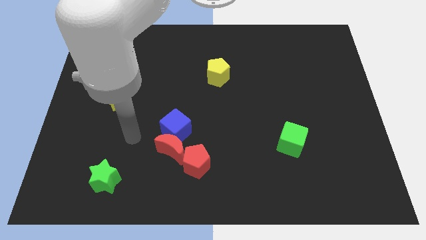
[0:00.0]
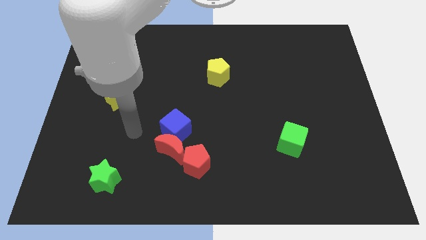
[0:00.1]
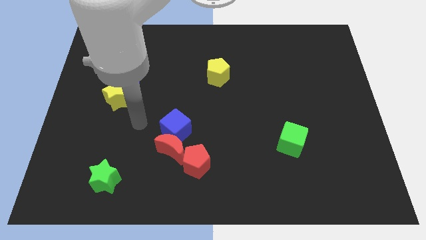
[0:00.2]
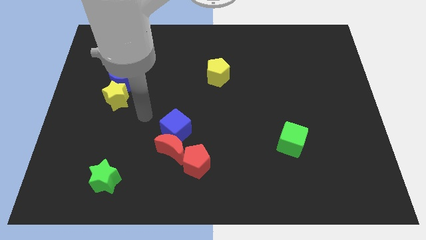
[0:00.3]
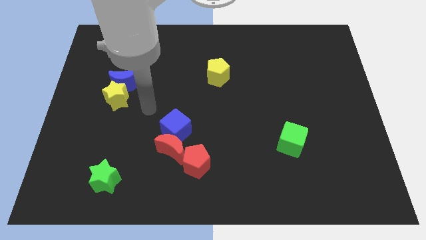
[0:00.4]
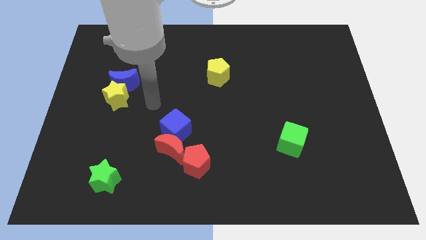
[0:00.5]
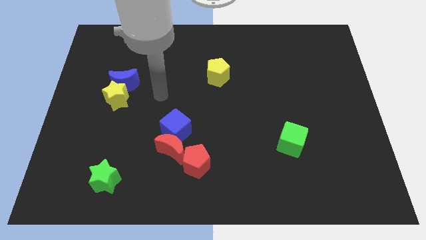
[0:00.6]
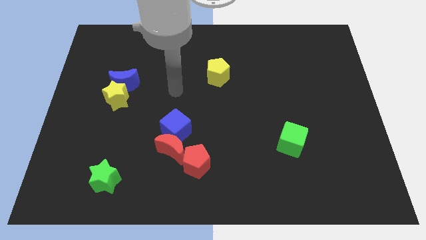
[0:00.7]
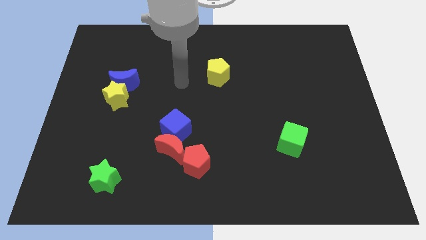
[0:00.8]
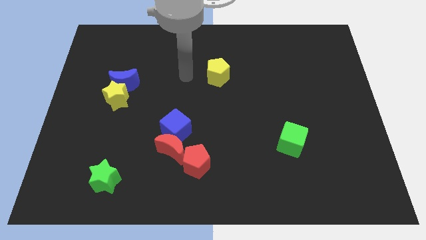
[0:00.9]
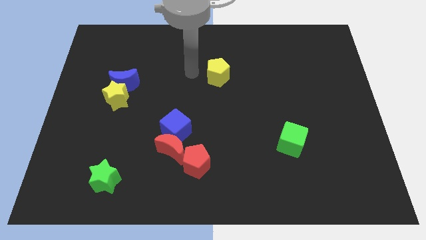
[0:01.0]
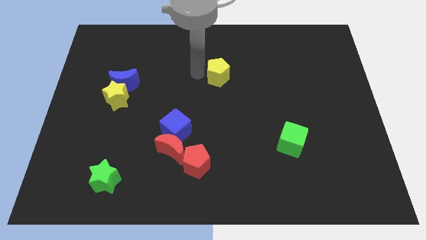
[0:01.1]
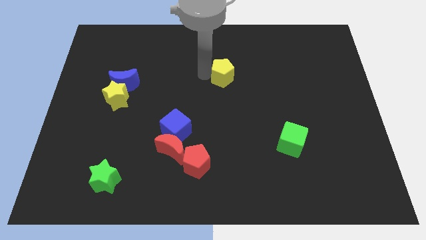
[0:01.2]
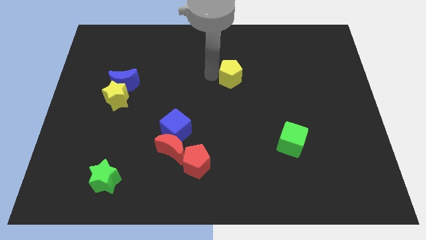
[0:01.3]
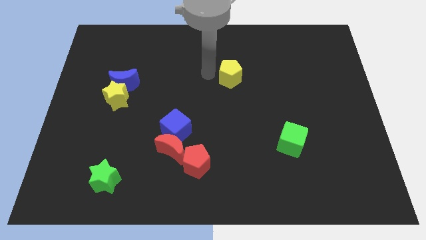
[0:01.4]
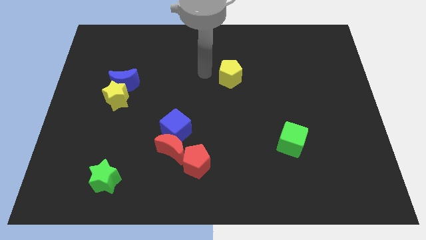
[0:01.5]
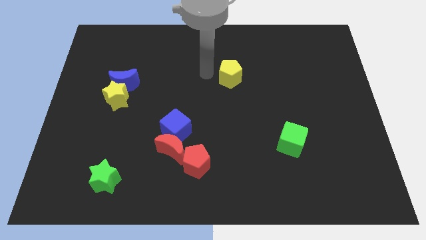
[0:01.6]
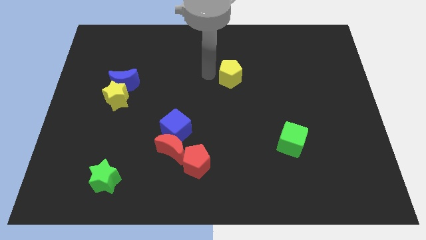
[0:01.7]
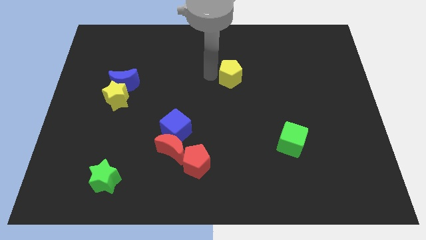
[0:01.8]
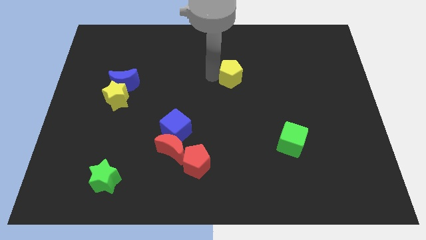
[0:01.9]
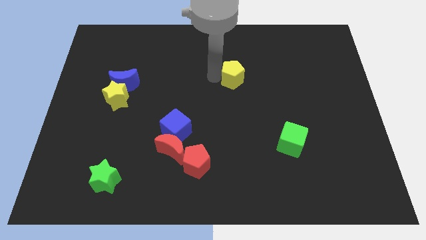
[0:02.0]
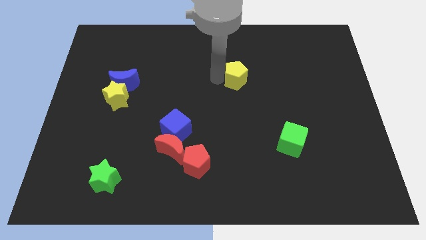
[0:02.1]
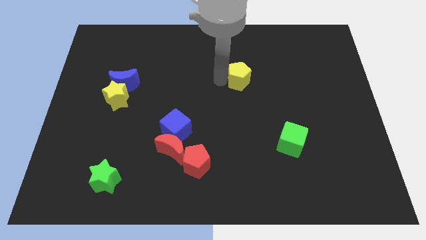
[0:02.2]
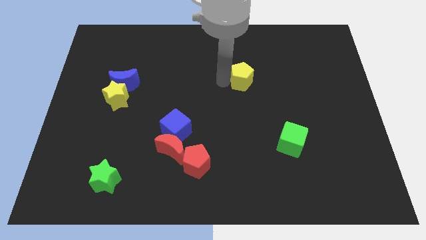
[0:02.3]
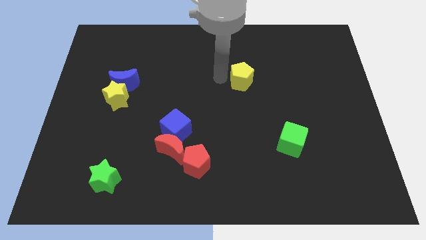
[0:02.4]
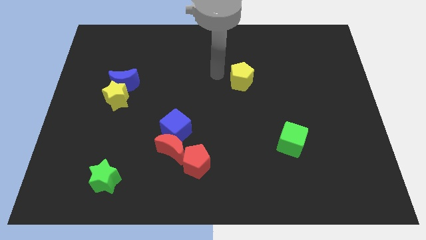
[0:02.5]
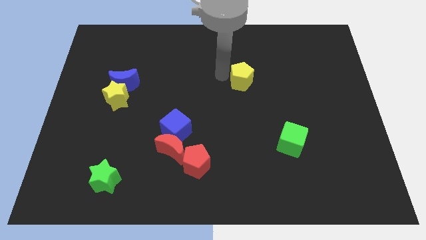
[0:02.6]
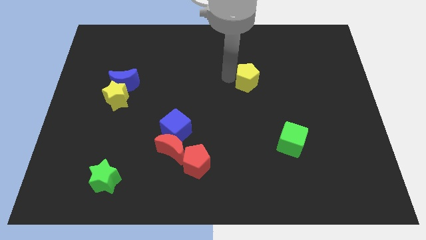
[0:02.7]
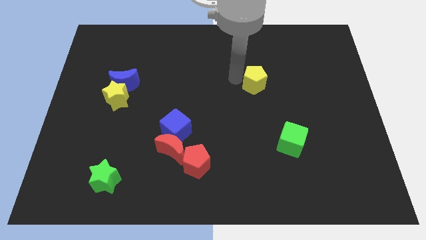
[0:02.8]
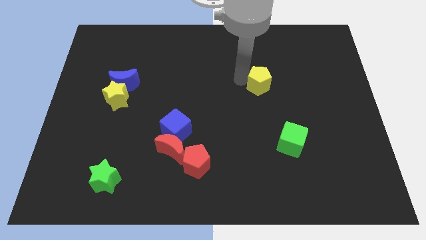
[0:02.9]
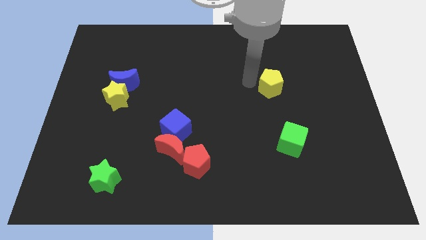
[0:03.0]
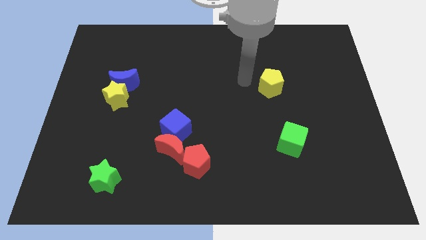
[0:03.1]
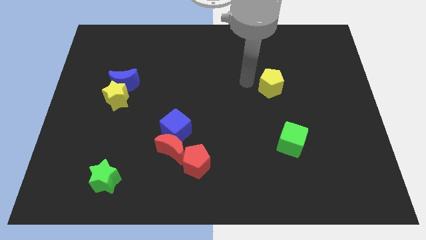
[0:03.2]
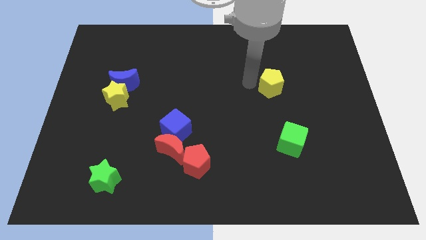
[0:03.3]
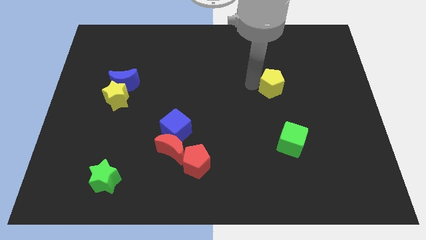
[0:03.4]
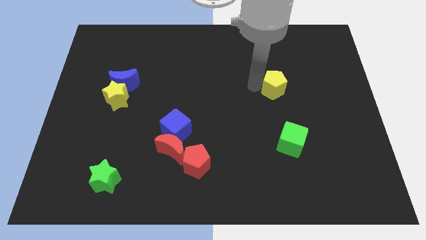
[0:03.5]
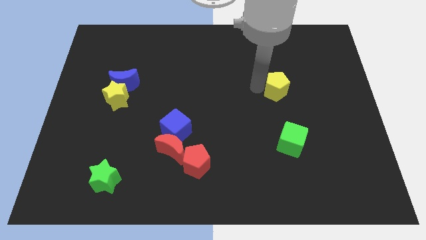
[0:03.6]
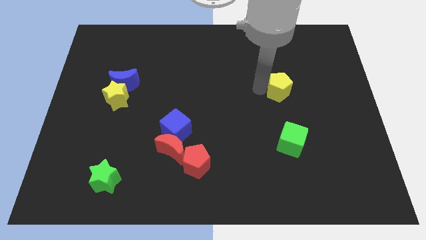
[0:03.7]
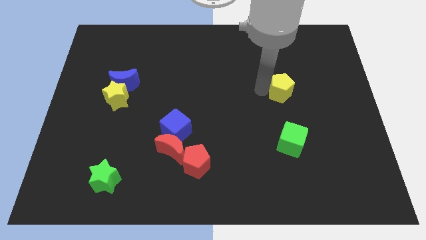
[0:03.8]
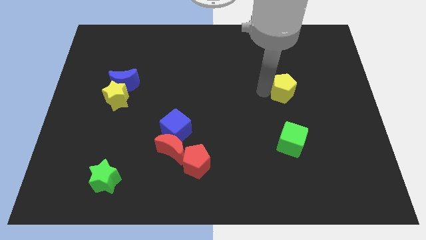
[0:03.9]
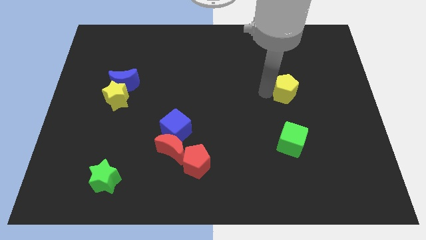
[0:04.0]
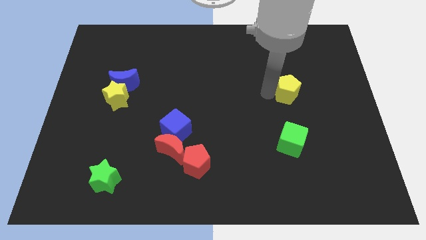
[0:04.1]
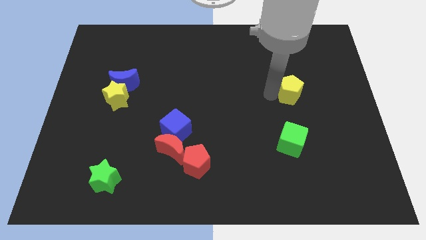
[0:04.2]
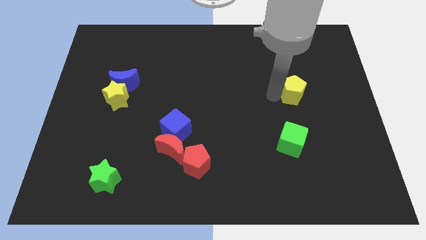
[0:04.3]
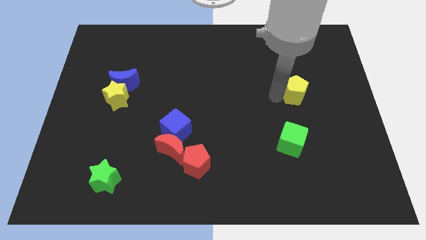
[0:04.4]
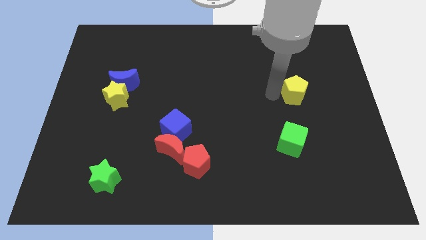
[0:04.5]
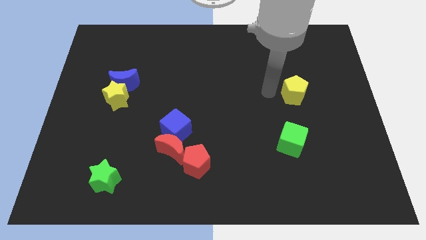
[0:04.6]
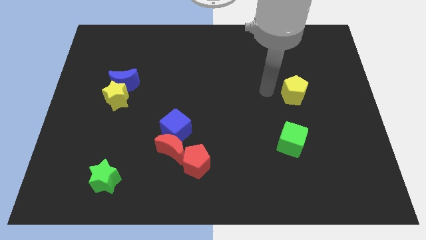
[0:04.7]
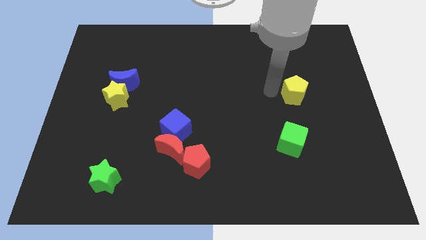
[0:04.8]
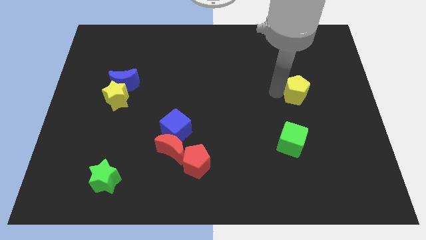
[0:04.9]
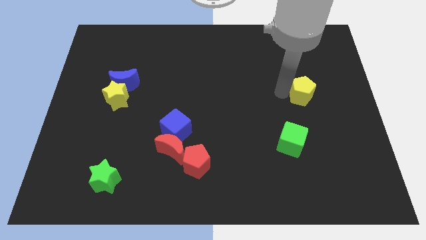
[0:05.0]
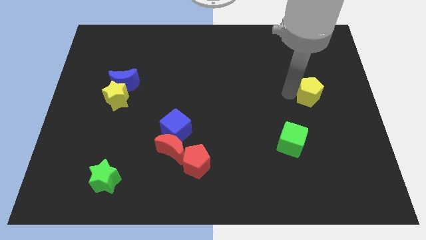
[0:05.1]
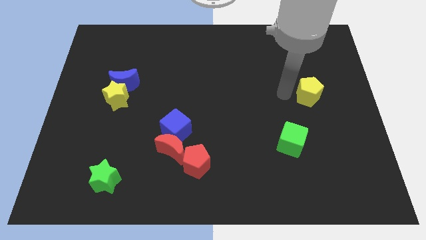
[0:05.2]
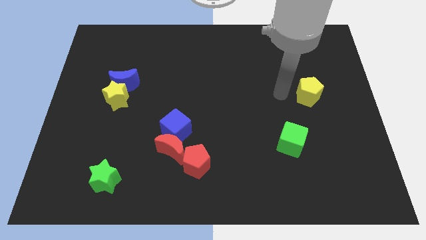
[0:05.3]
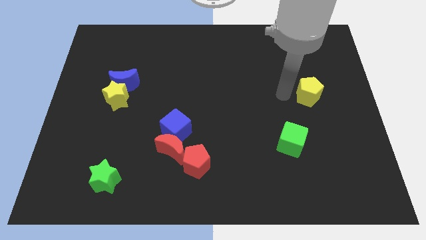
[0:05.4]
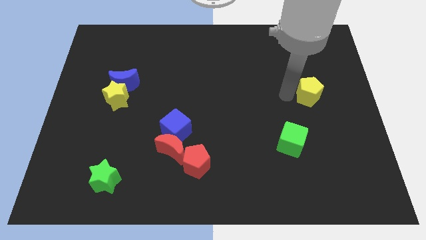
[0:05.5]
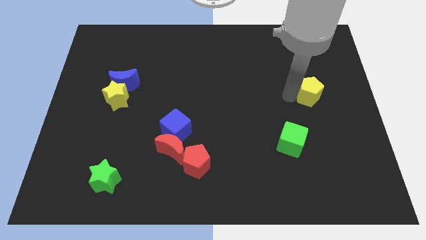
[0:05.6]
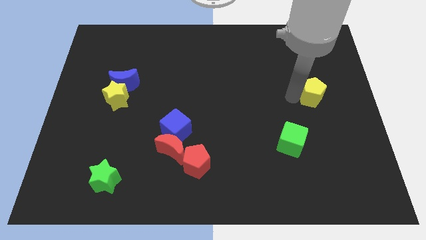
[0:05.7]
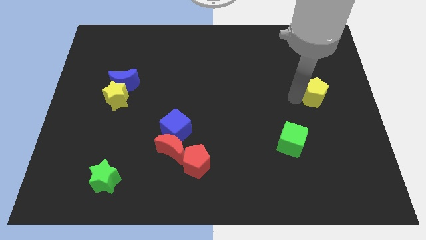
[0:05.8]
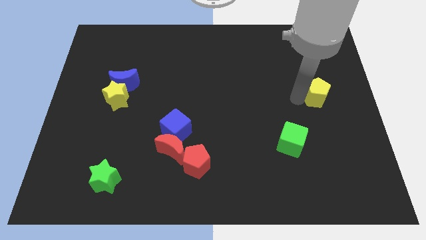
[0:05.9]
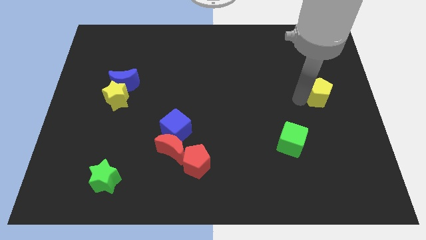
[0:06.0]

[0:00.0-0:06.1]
move the yellow pentagon to the center right

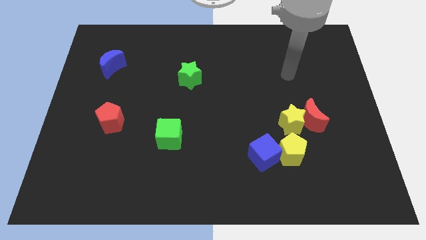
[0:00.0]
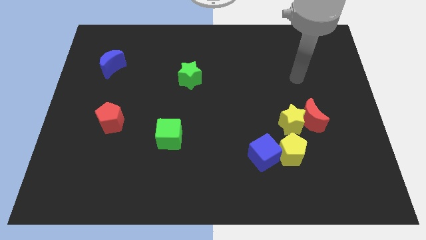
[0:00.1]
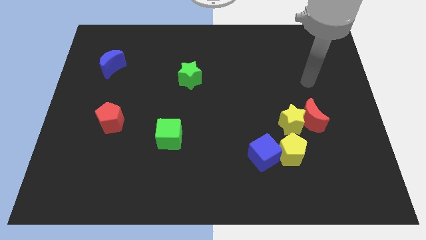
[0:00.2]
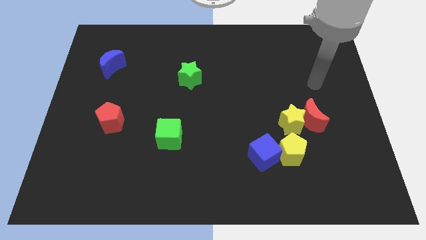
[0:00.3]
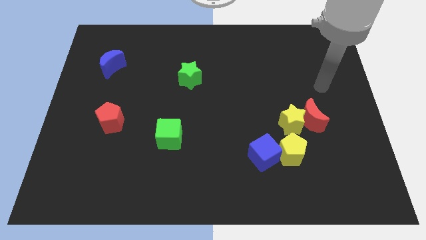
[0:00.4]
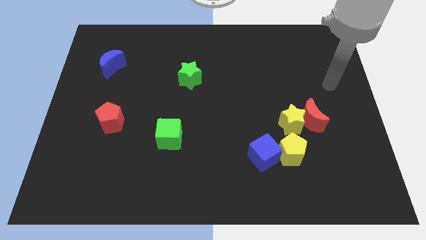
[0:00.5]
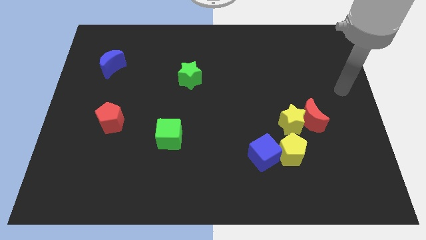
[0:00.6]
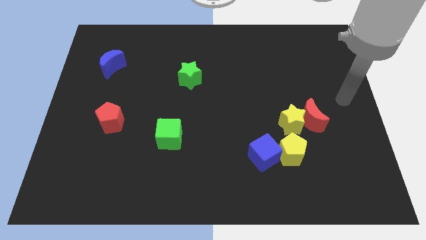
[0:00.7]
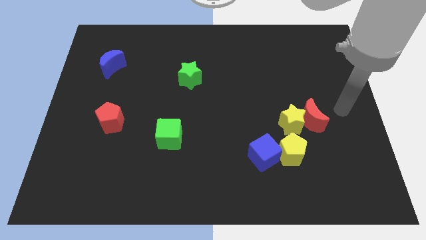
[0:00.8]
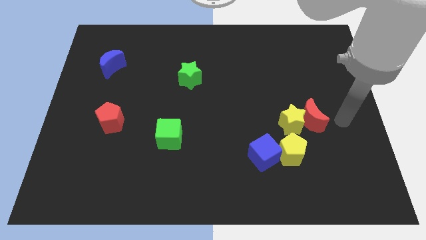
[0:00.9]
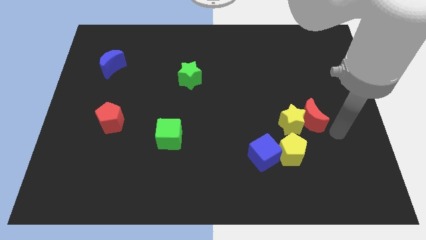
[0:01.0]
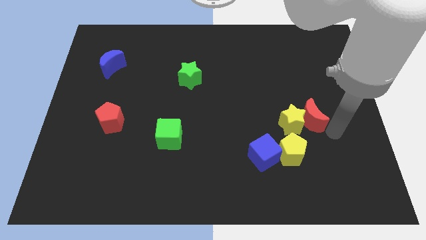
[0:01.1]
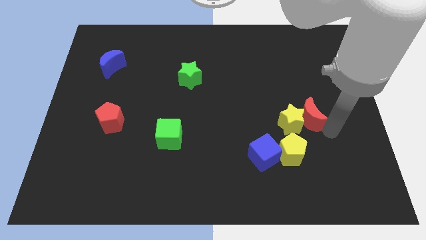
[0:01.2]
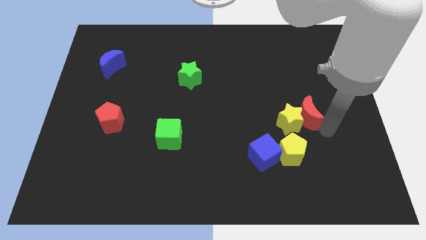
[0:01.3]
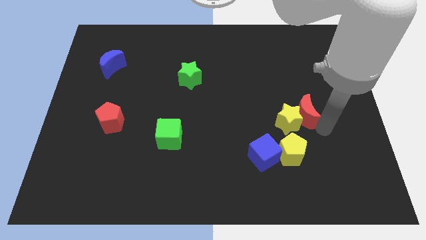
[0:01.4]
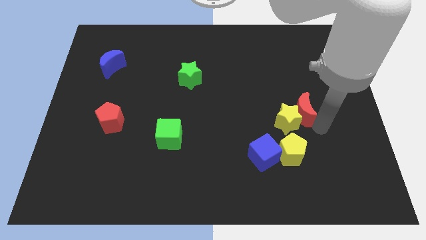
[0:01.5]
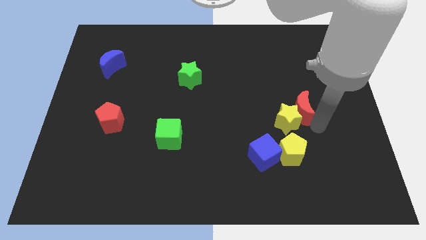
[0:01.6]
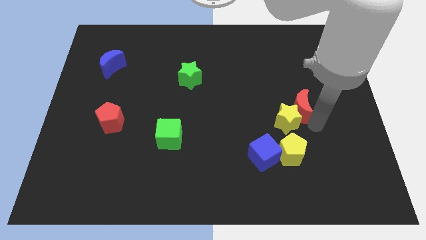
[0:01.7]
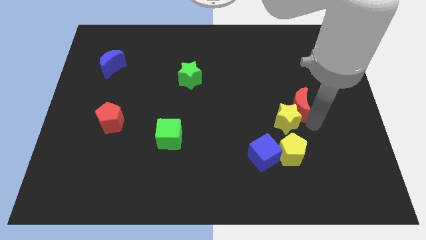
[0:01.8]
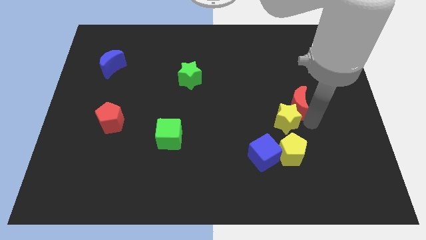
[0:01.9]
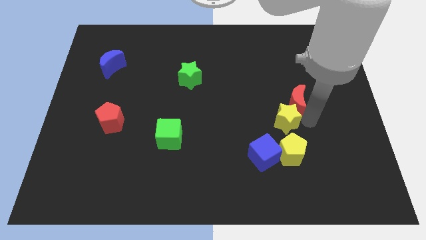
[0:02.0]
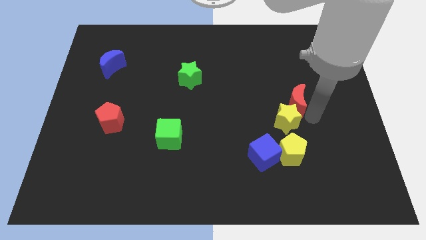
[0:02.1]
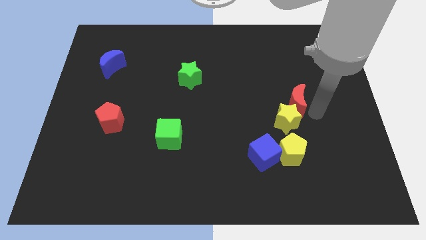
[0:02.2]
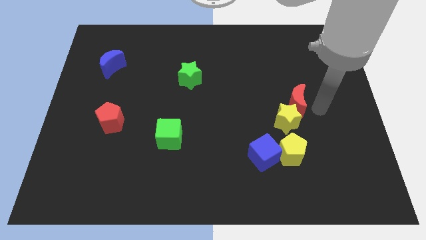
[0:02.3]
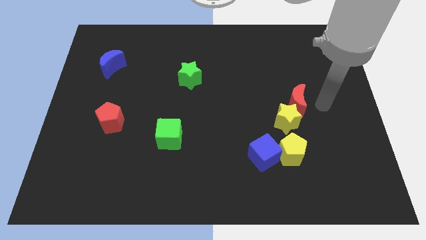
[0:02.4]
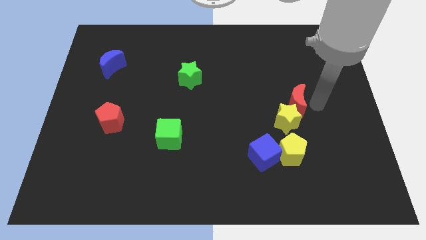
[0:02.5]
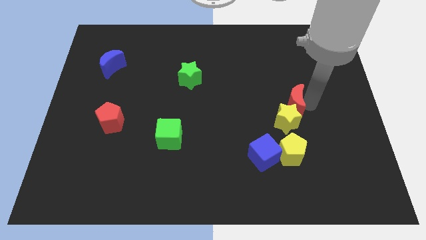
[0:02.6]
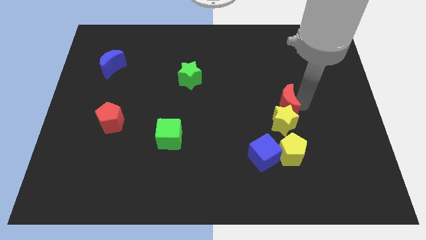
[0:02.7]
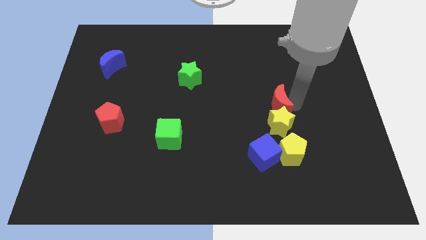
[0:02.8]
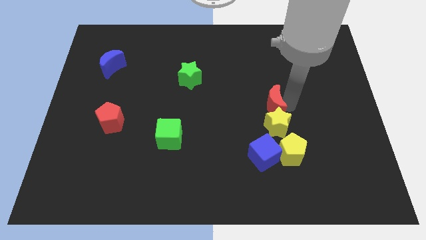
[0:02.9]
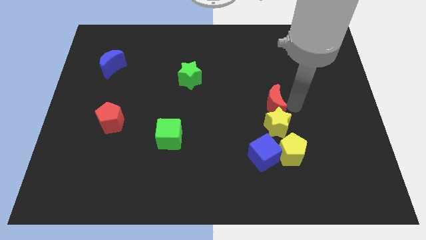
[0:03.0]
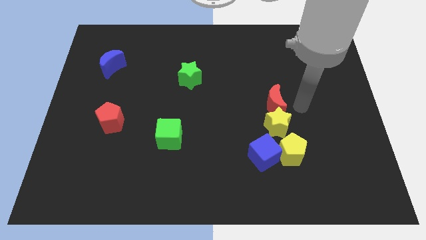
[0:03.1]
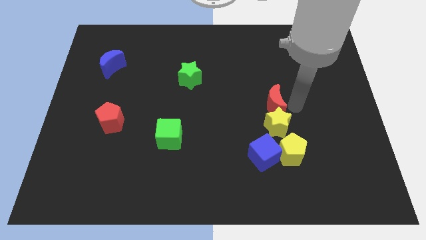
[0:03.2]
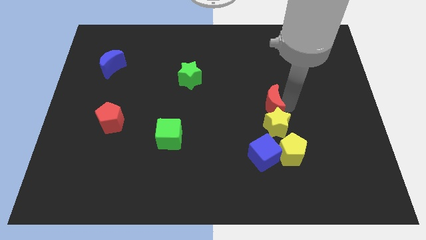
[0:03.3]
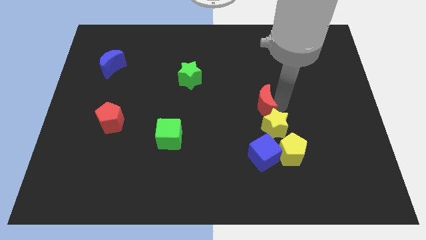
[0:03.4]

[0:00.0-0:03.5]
slide the red moon to the center
